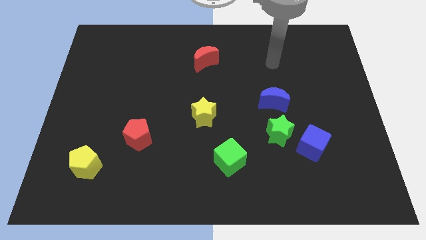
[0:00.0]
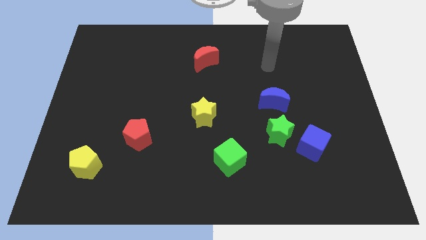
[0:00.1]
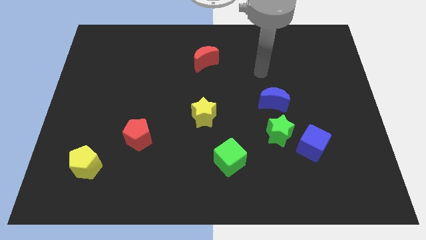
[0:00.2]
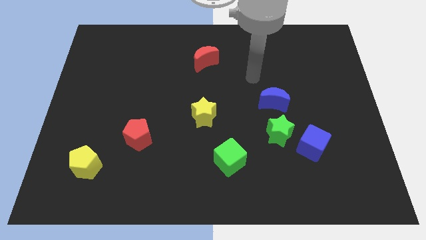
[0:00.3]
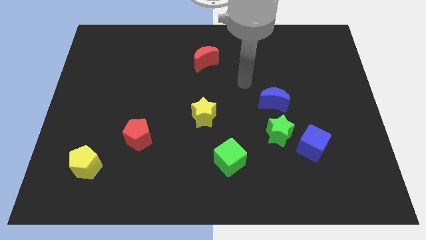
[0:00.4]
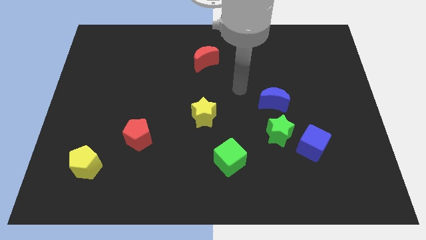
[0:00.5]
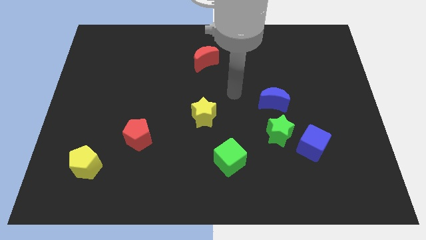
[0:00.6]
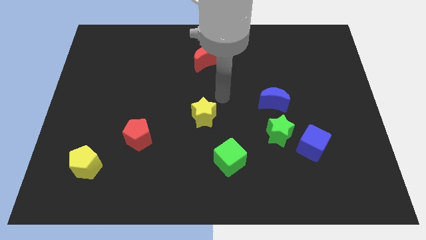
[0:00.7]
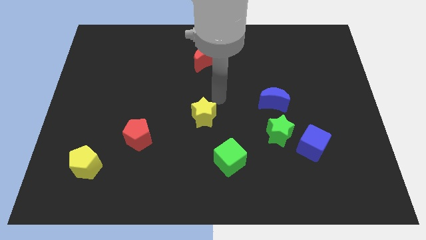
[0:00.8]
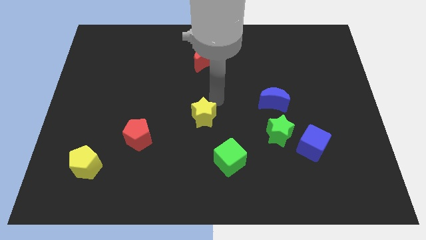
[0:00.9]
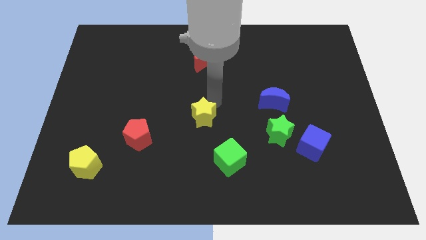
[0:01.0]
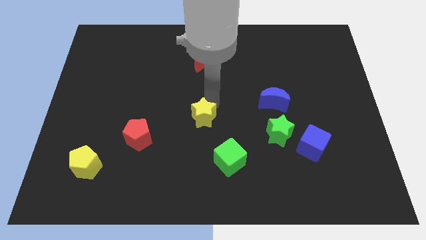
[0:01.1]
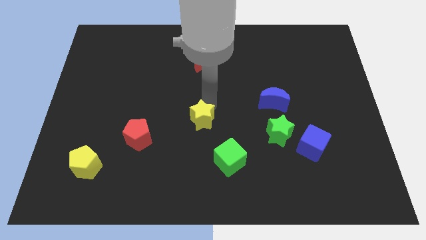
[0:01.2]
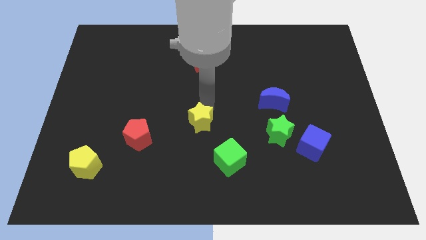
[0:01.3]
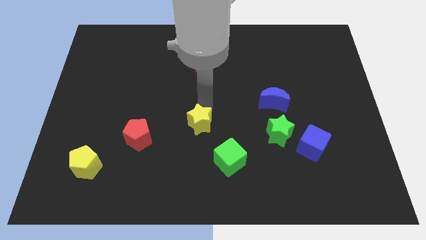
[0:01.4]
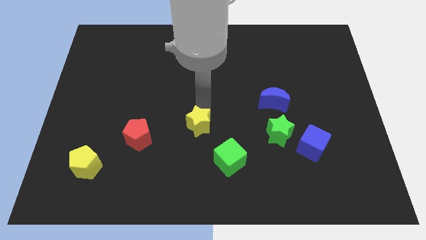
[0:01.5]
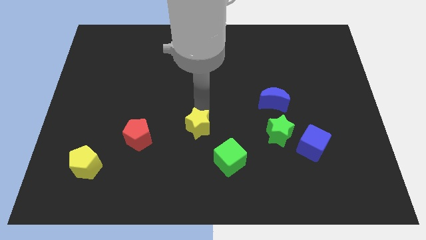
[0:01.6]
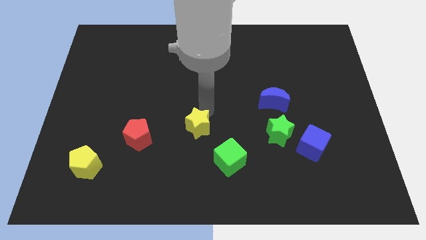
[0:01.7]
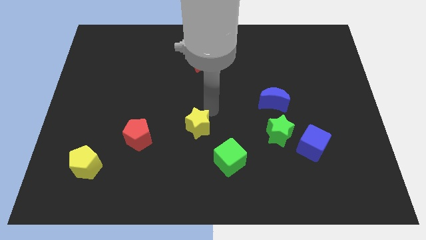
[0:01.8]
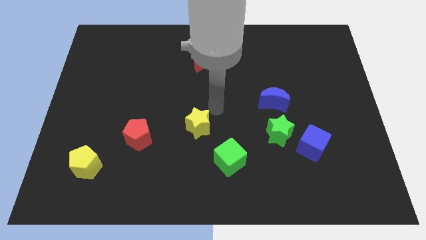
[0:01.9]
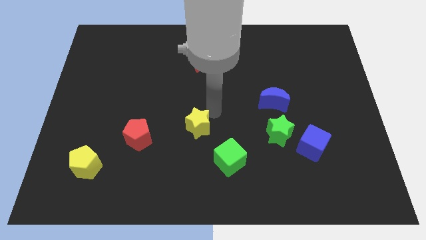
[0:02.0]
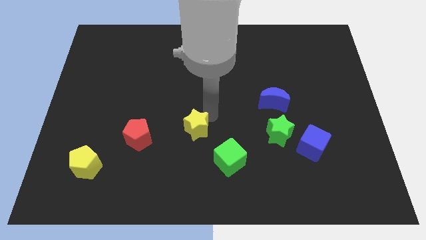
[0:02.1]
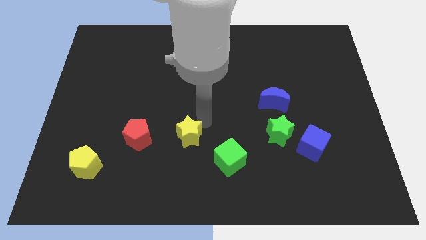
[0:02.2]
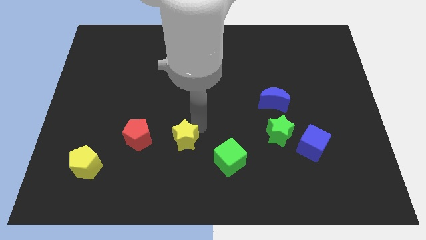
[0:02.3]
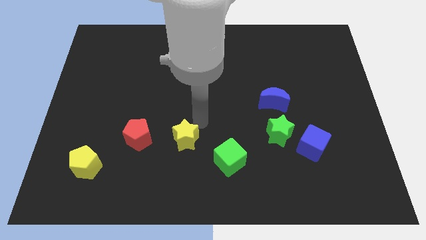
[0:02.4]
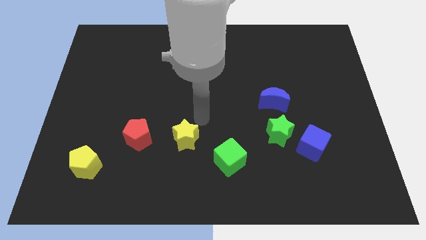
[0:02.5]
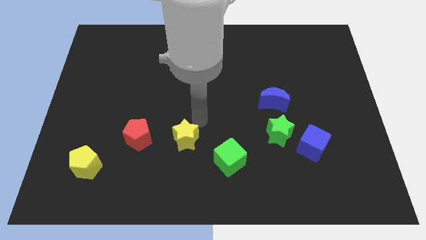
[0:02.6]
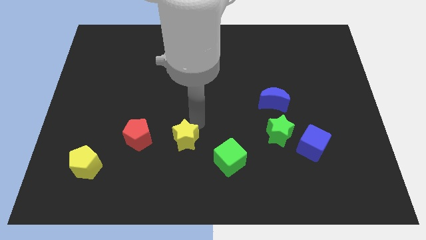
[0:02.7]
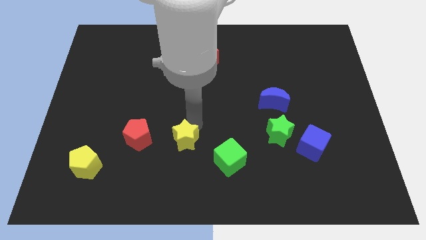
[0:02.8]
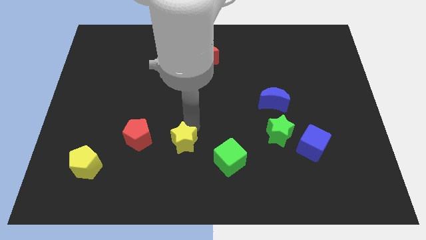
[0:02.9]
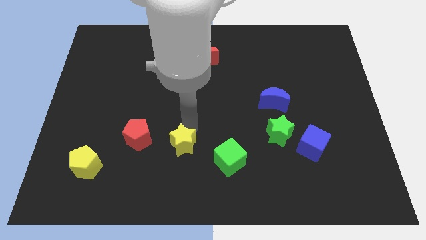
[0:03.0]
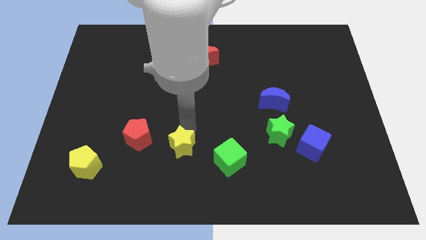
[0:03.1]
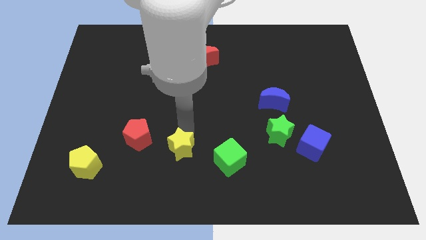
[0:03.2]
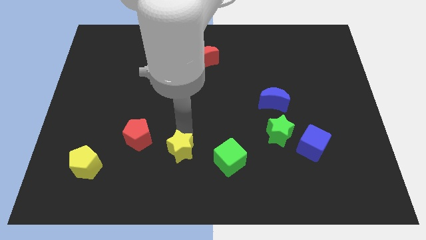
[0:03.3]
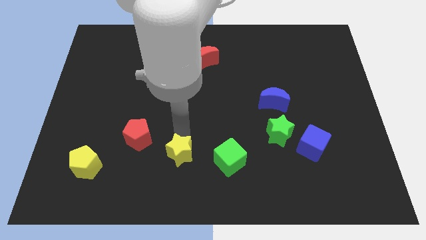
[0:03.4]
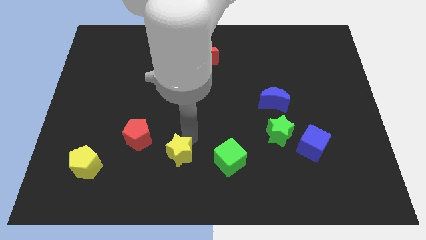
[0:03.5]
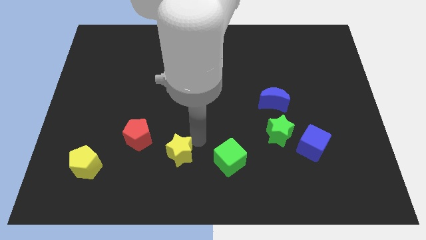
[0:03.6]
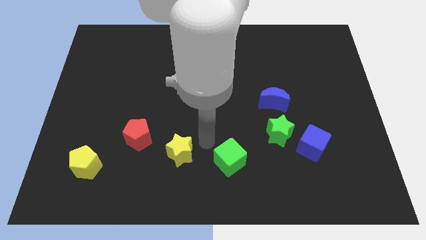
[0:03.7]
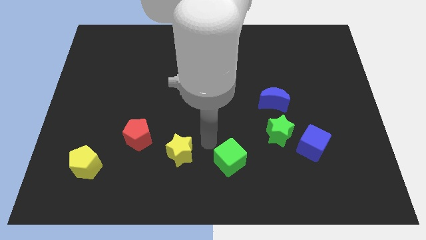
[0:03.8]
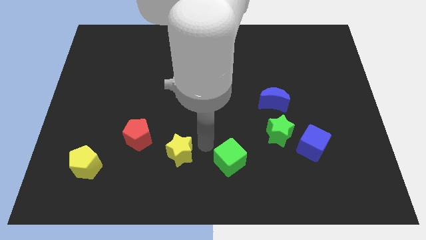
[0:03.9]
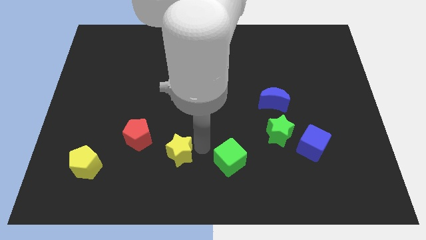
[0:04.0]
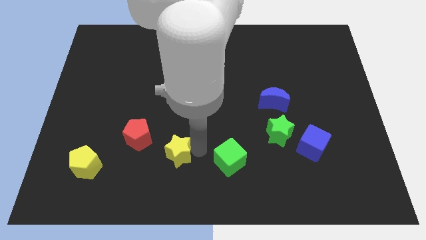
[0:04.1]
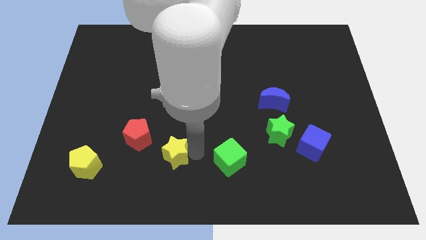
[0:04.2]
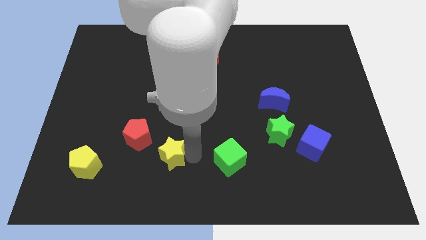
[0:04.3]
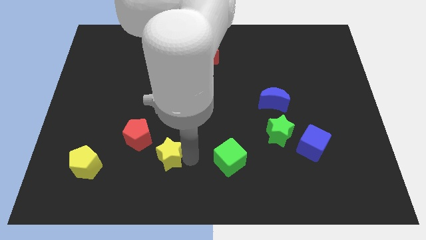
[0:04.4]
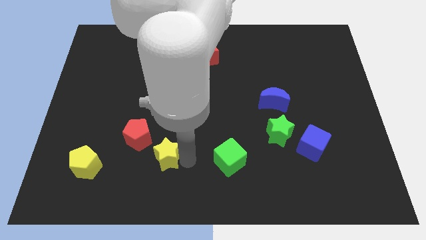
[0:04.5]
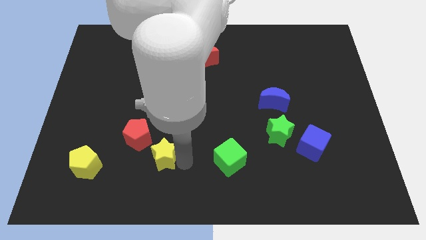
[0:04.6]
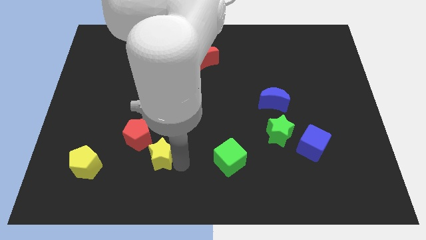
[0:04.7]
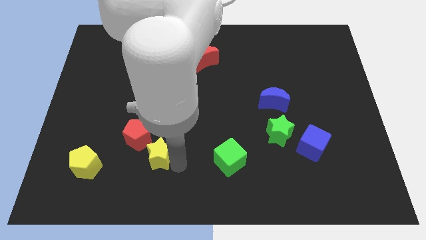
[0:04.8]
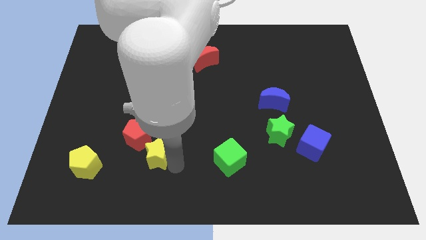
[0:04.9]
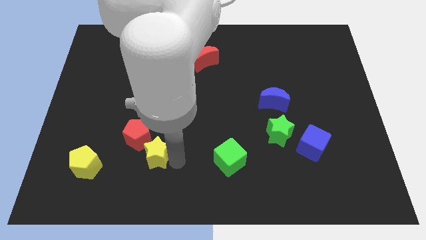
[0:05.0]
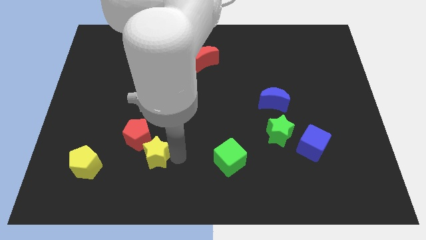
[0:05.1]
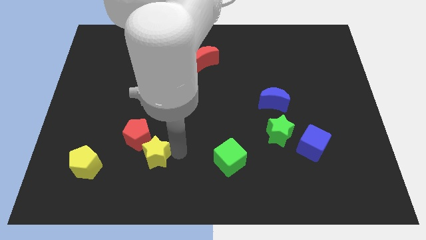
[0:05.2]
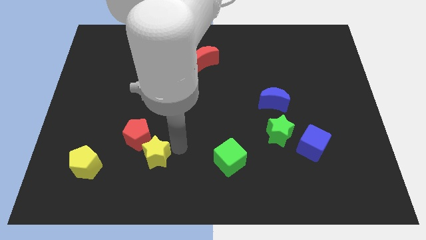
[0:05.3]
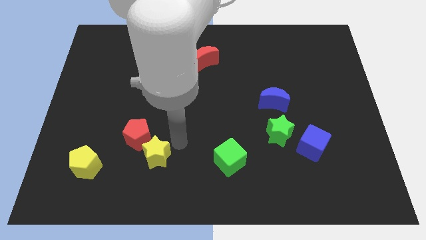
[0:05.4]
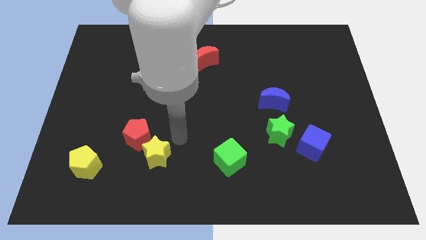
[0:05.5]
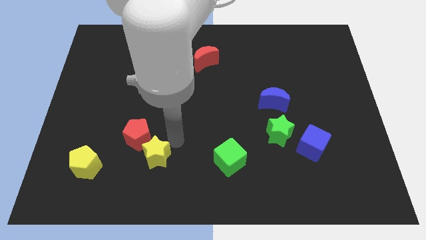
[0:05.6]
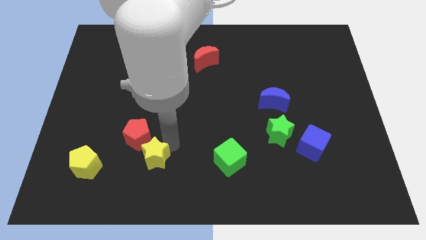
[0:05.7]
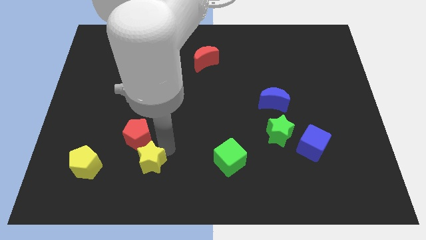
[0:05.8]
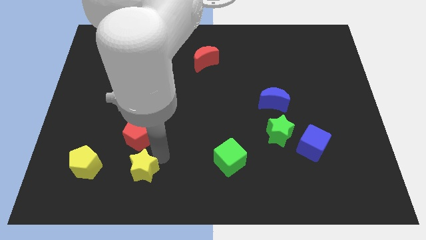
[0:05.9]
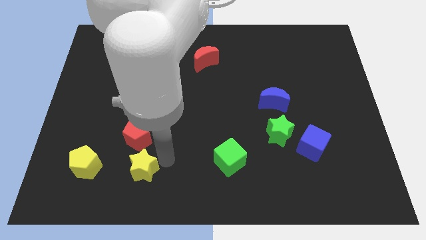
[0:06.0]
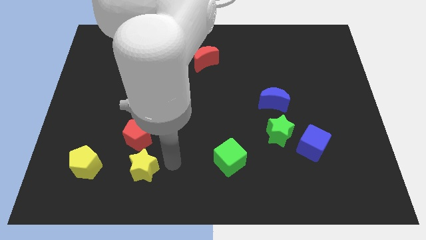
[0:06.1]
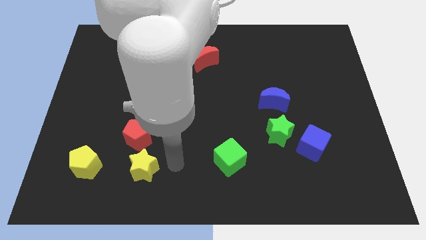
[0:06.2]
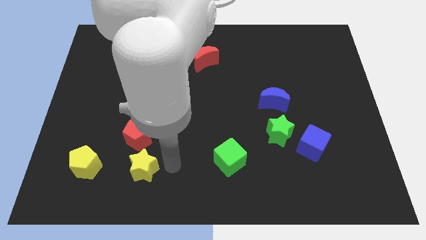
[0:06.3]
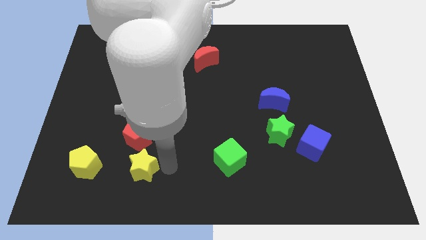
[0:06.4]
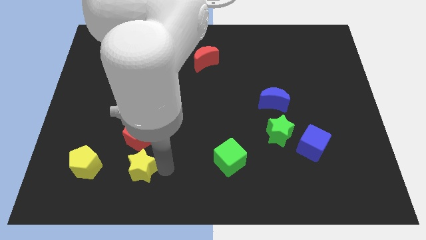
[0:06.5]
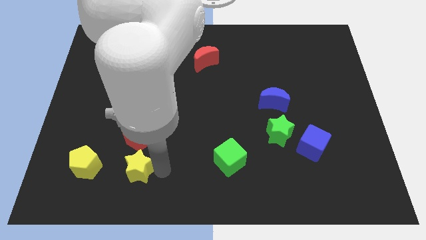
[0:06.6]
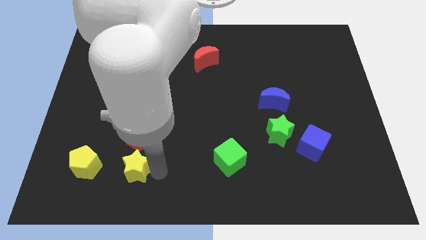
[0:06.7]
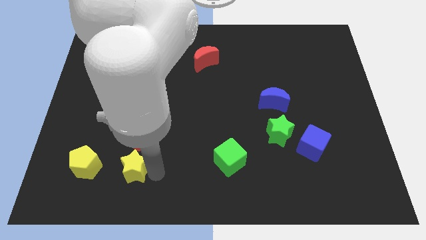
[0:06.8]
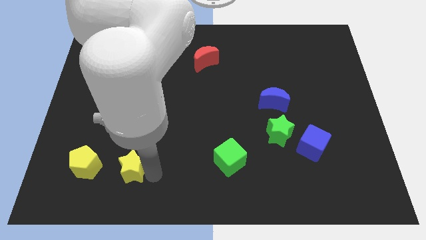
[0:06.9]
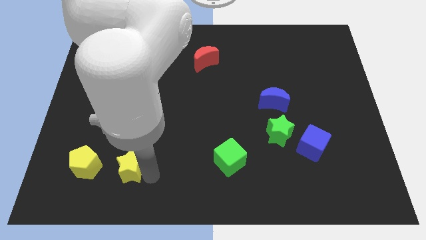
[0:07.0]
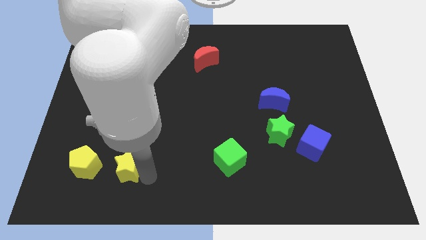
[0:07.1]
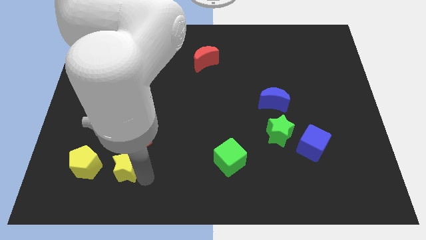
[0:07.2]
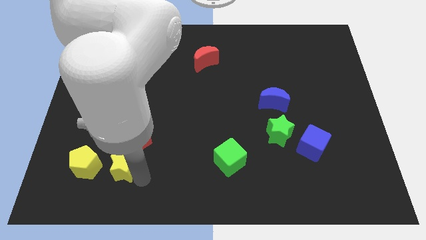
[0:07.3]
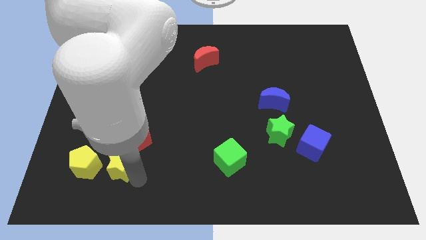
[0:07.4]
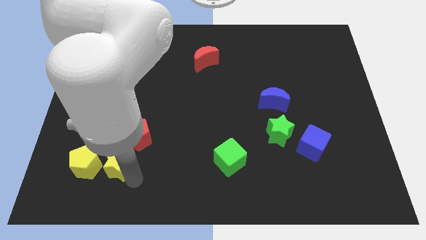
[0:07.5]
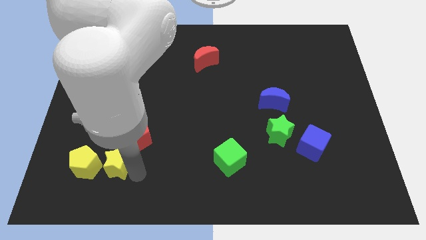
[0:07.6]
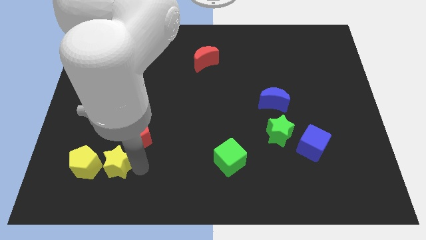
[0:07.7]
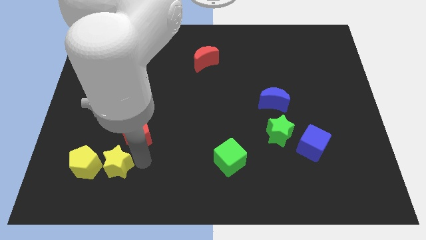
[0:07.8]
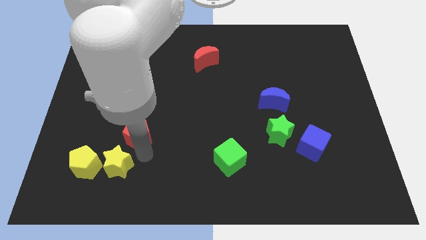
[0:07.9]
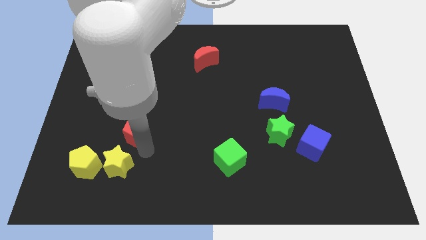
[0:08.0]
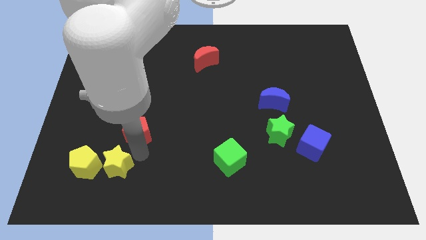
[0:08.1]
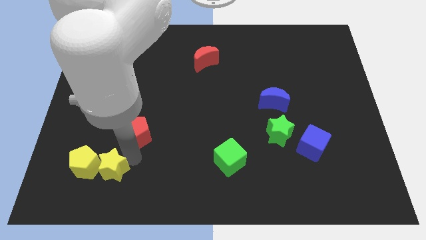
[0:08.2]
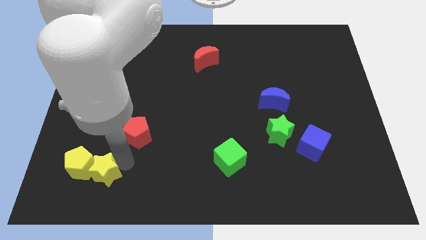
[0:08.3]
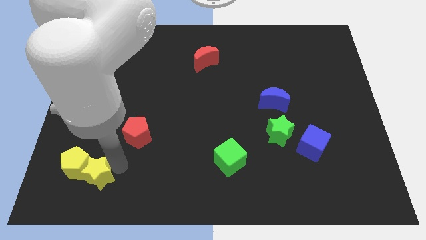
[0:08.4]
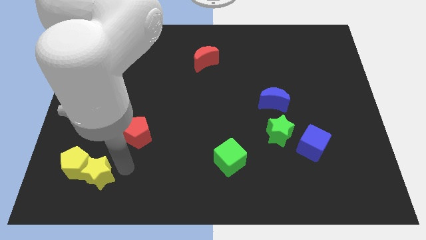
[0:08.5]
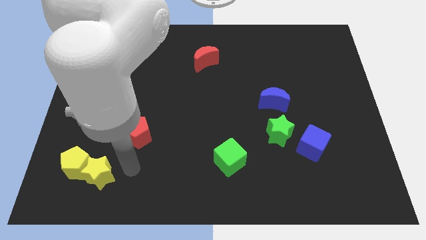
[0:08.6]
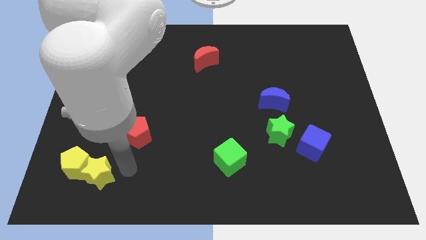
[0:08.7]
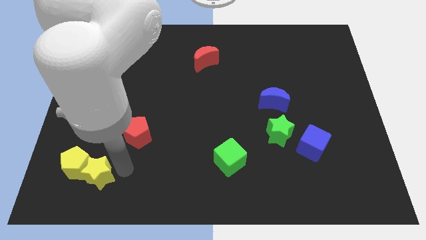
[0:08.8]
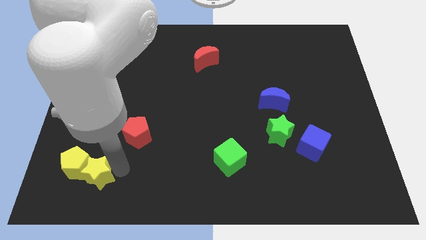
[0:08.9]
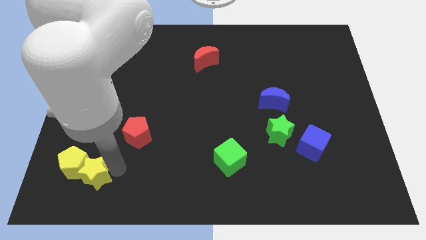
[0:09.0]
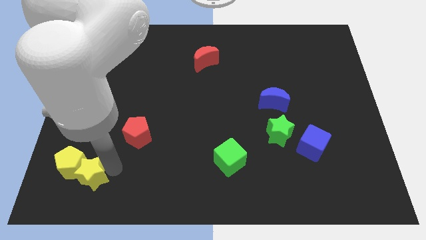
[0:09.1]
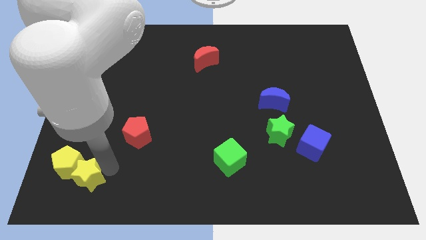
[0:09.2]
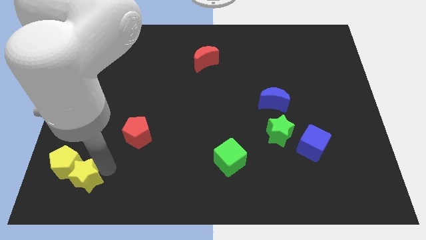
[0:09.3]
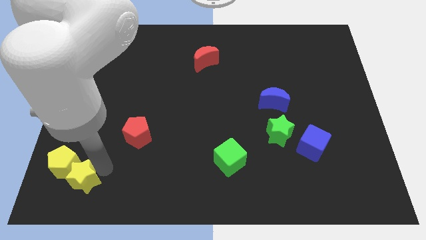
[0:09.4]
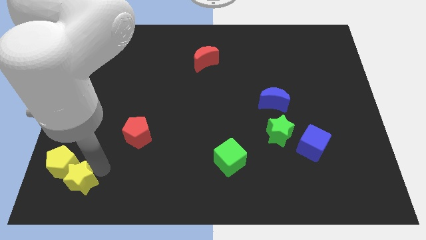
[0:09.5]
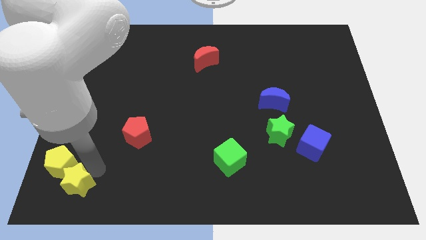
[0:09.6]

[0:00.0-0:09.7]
put the yellow star to the lower left corner
